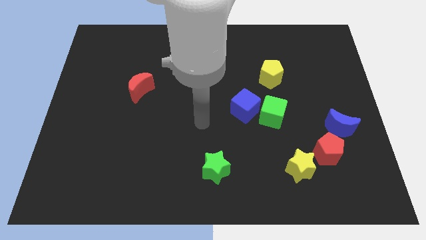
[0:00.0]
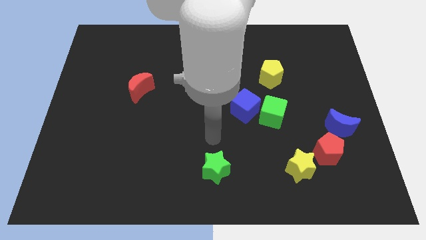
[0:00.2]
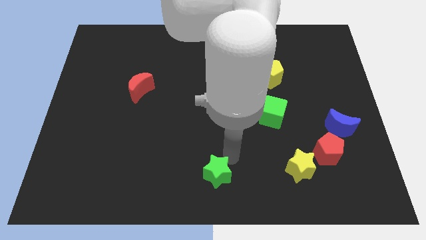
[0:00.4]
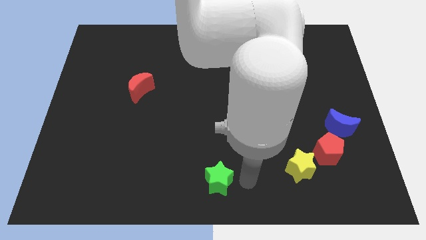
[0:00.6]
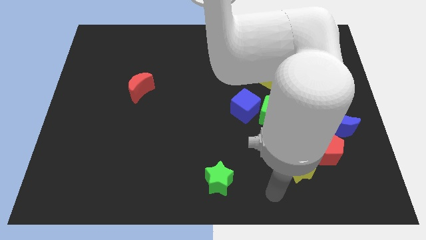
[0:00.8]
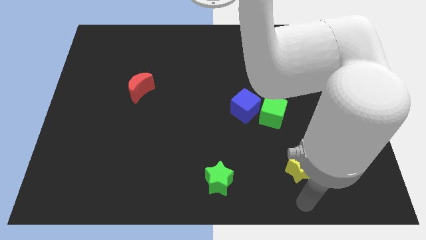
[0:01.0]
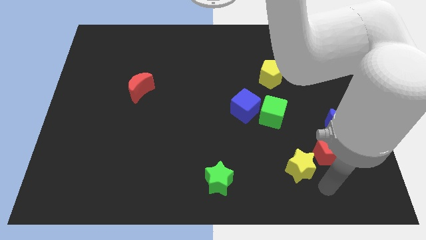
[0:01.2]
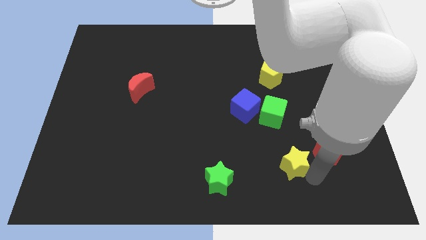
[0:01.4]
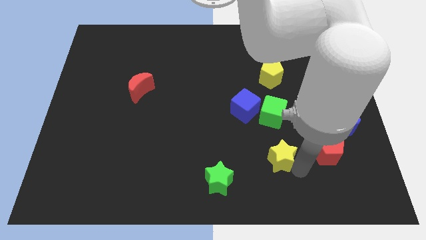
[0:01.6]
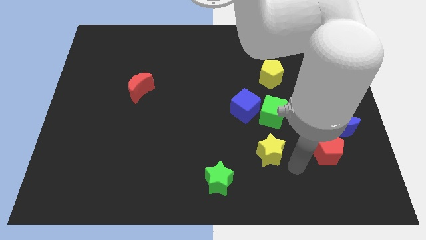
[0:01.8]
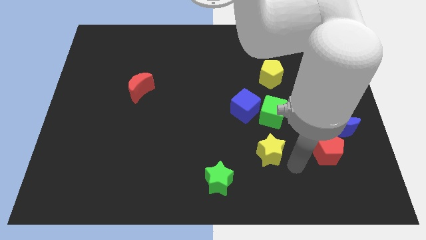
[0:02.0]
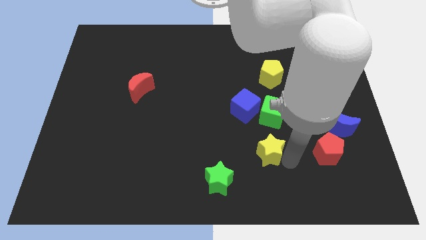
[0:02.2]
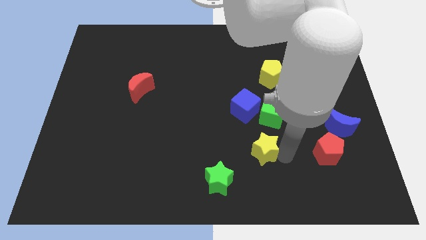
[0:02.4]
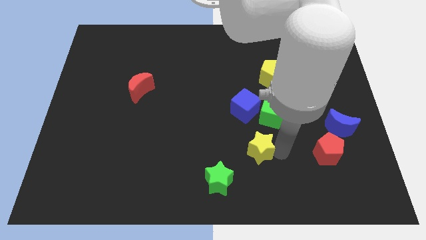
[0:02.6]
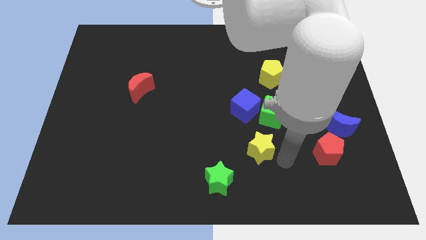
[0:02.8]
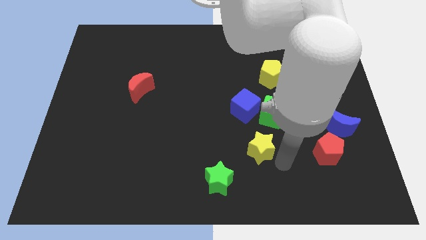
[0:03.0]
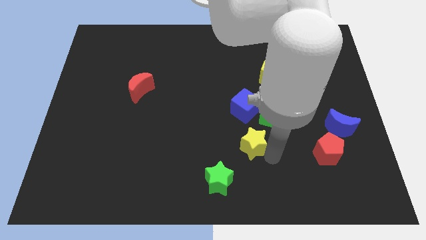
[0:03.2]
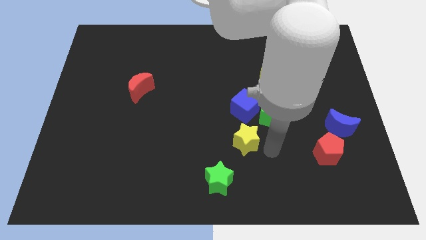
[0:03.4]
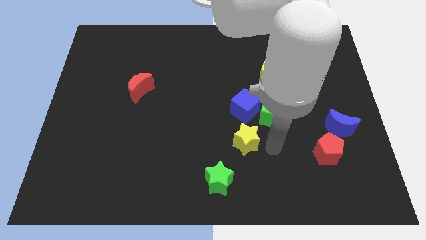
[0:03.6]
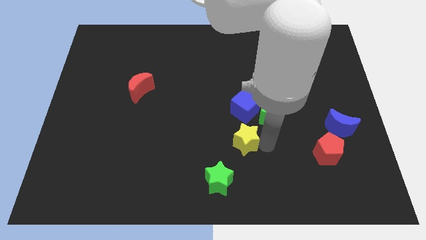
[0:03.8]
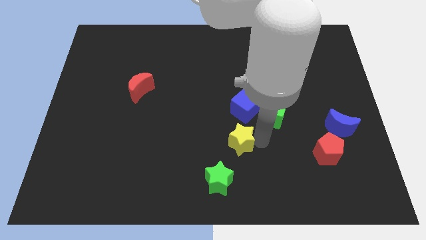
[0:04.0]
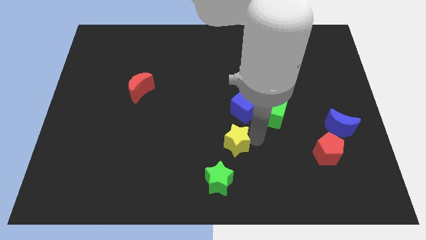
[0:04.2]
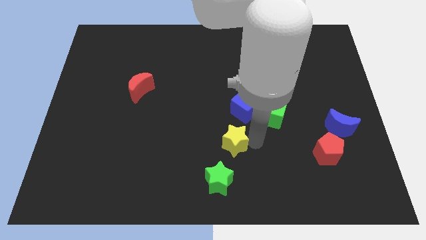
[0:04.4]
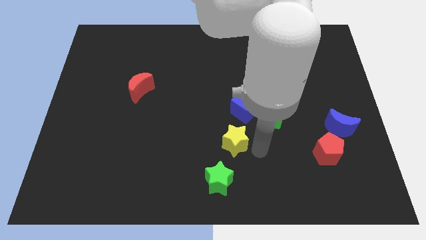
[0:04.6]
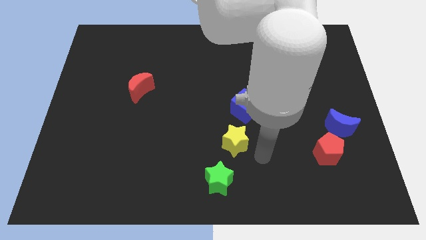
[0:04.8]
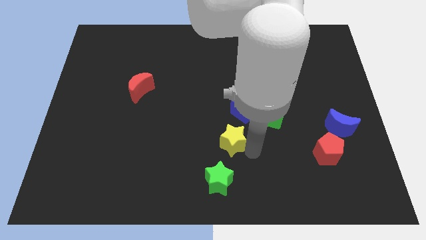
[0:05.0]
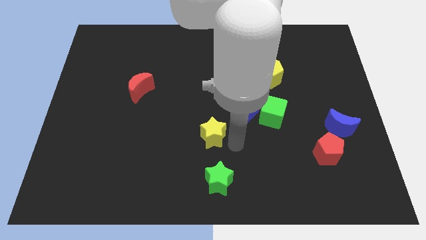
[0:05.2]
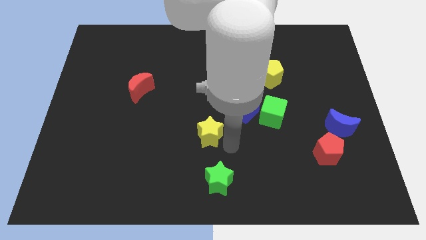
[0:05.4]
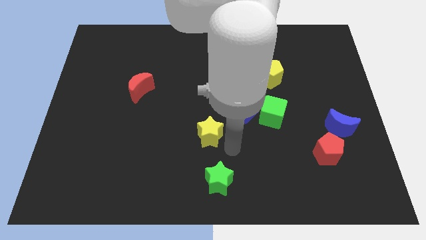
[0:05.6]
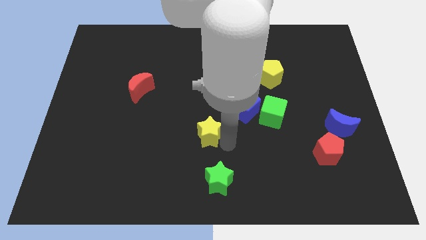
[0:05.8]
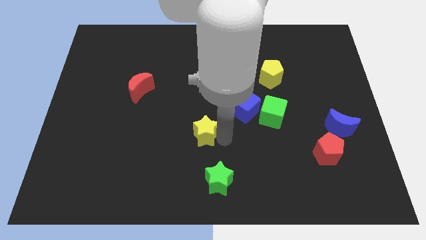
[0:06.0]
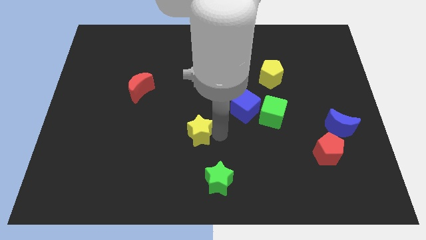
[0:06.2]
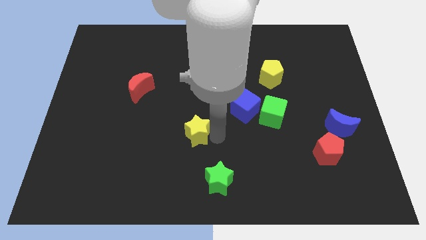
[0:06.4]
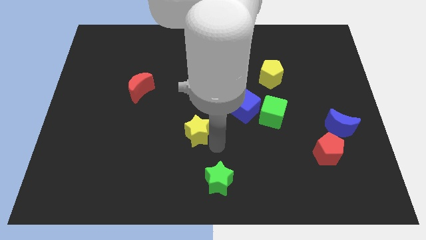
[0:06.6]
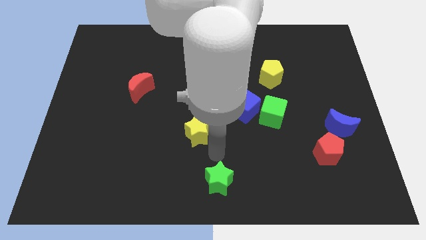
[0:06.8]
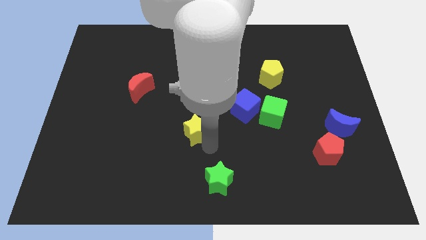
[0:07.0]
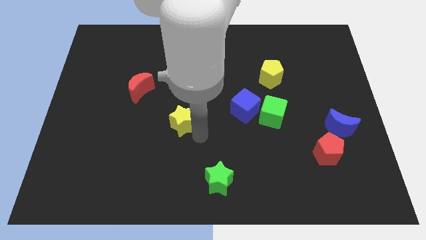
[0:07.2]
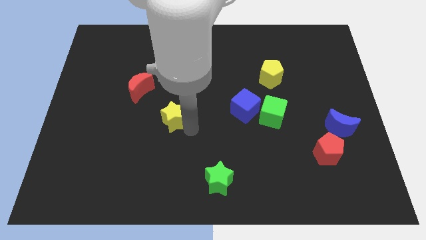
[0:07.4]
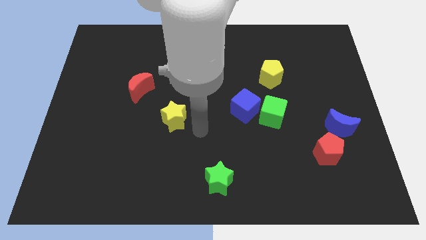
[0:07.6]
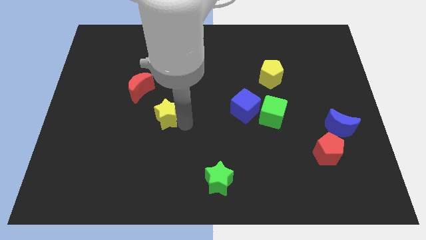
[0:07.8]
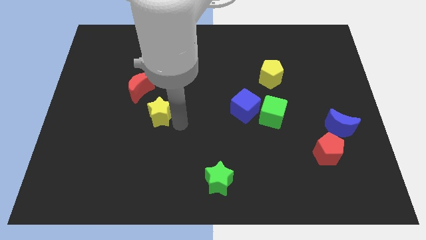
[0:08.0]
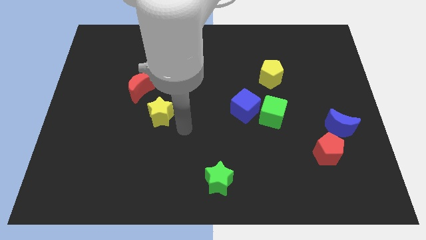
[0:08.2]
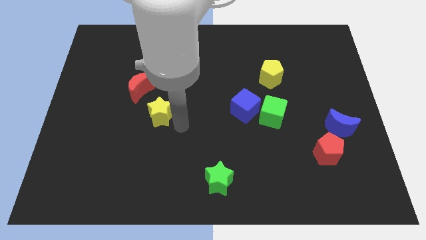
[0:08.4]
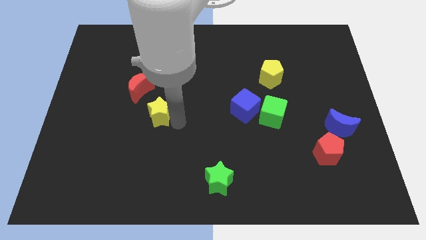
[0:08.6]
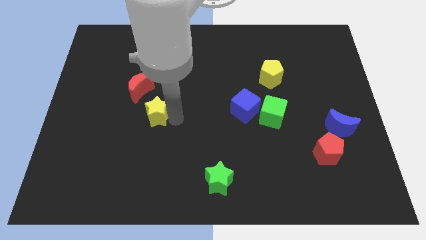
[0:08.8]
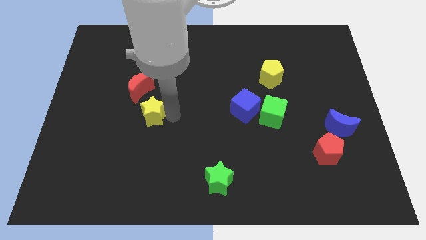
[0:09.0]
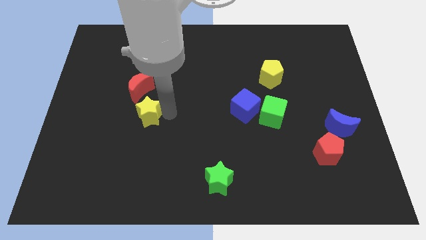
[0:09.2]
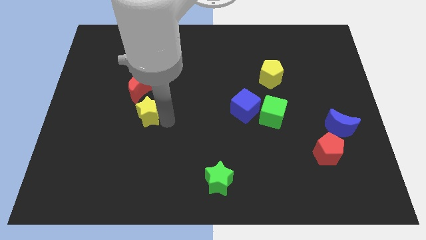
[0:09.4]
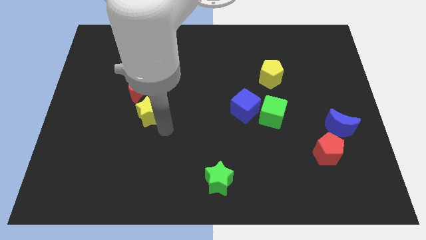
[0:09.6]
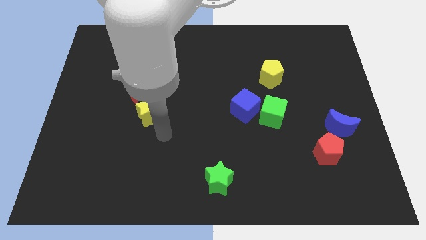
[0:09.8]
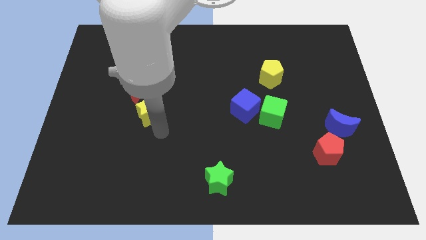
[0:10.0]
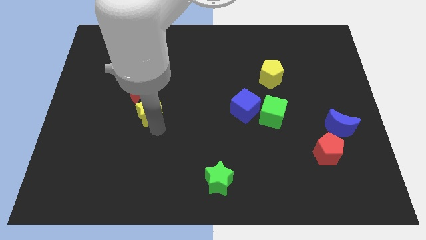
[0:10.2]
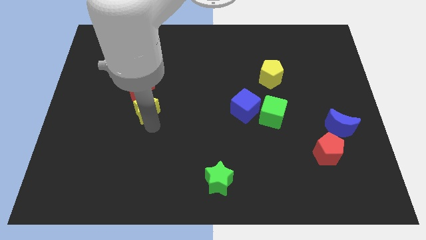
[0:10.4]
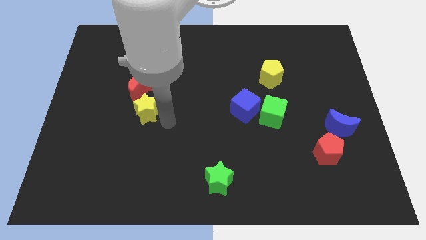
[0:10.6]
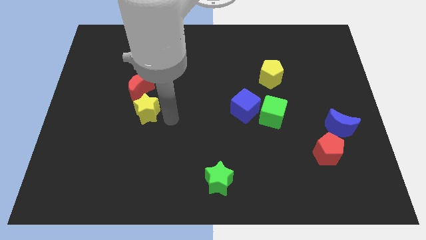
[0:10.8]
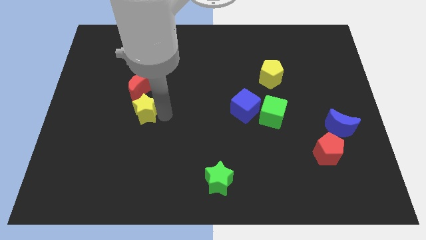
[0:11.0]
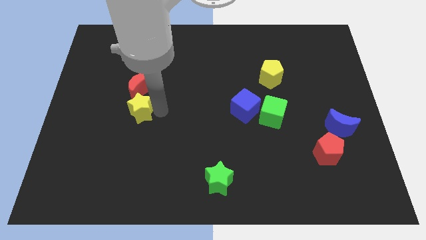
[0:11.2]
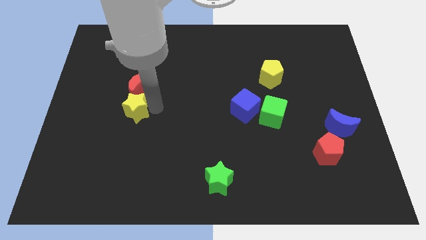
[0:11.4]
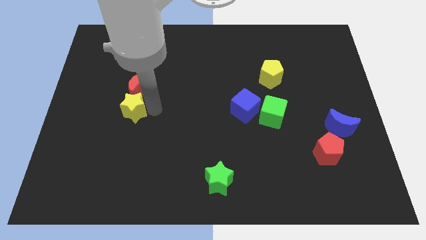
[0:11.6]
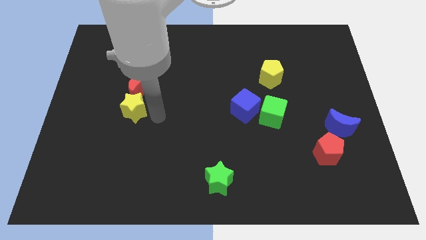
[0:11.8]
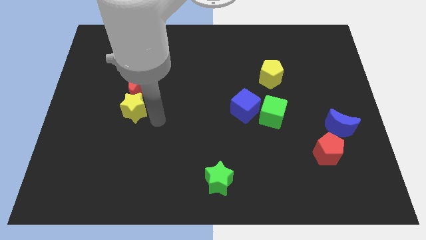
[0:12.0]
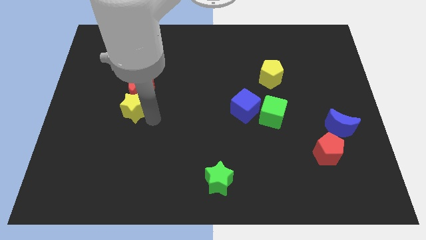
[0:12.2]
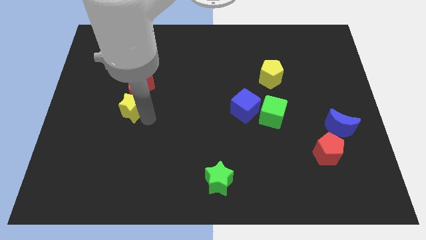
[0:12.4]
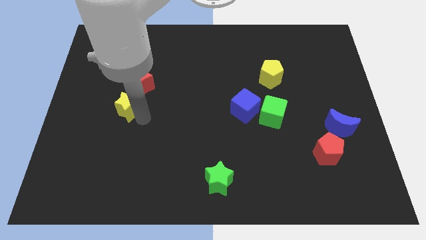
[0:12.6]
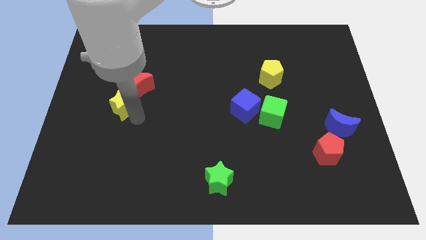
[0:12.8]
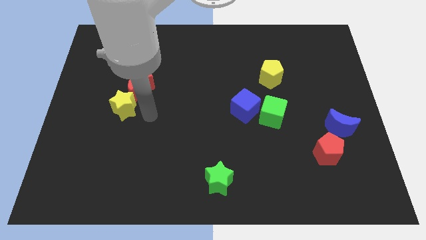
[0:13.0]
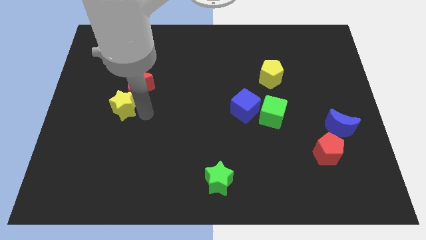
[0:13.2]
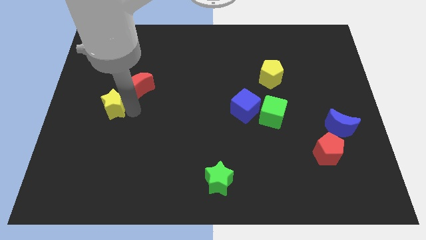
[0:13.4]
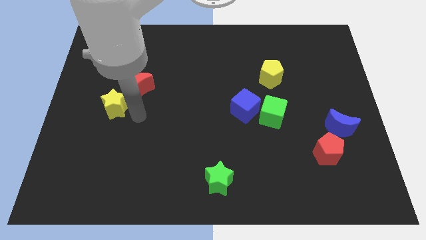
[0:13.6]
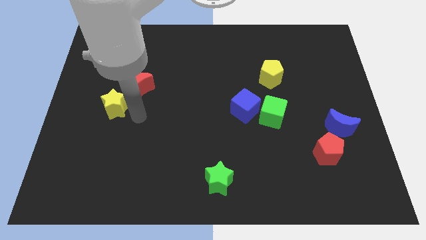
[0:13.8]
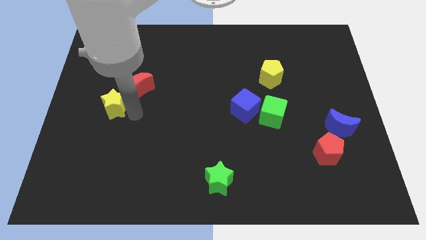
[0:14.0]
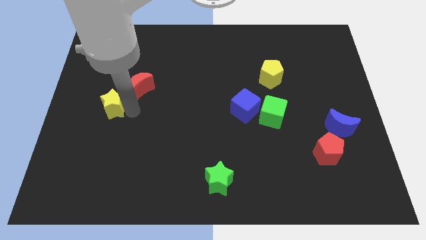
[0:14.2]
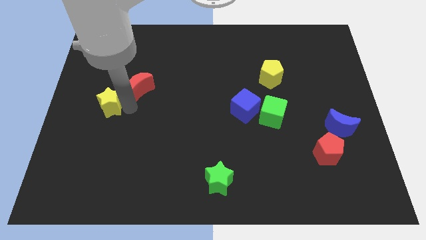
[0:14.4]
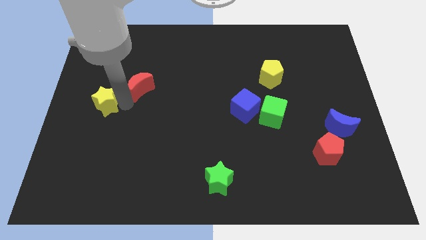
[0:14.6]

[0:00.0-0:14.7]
slide the yellow star to the left side of the board

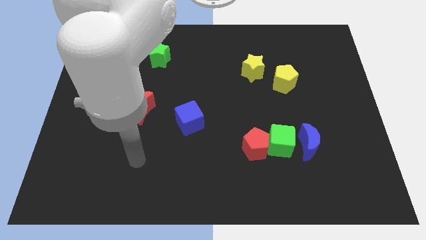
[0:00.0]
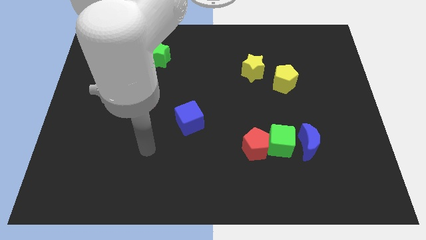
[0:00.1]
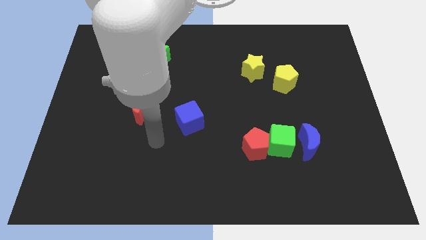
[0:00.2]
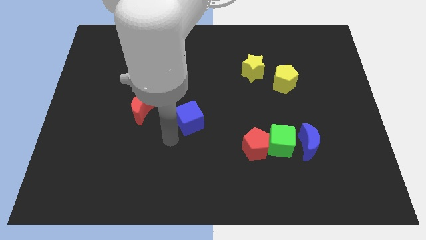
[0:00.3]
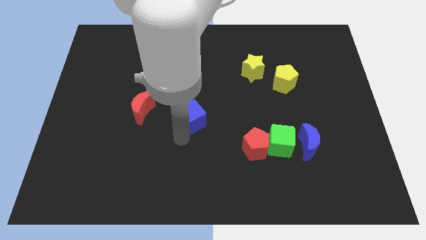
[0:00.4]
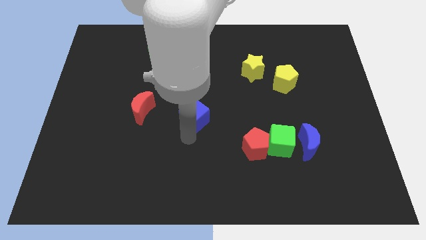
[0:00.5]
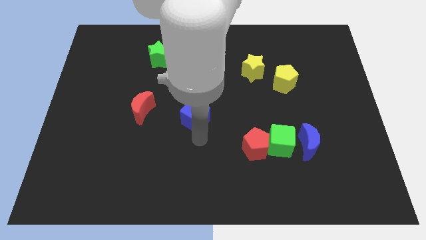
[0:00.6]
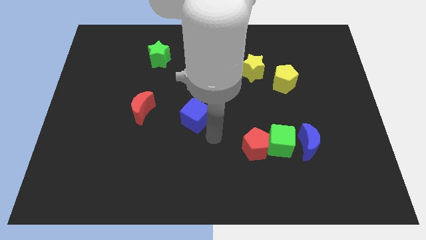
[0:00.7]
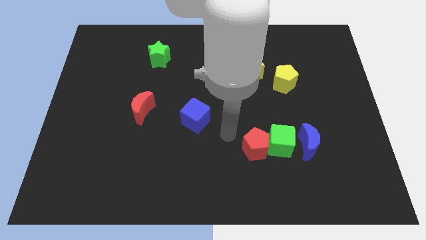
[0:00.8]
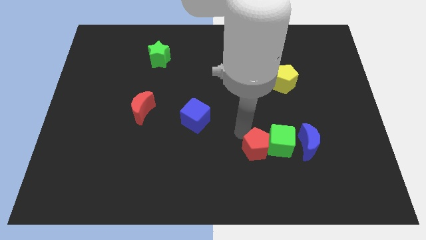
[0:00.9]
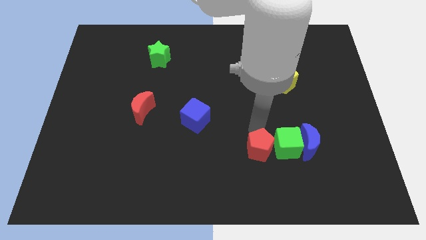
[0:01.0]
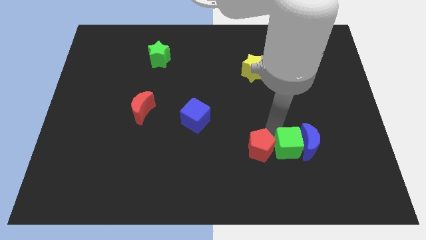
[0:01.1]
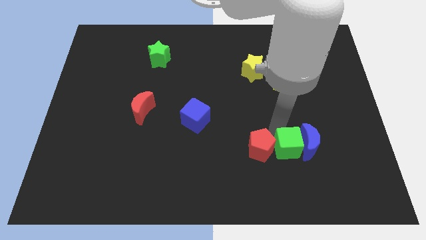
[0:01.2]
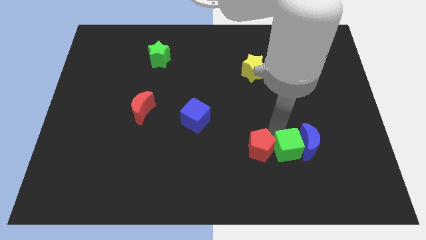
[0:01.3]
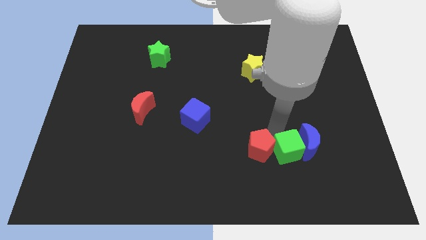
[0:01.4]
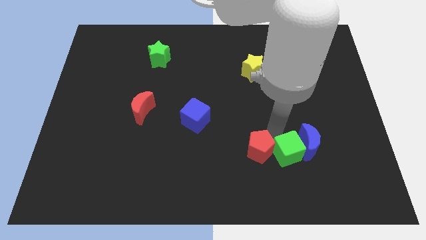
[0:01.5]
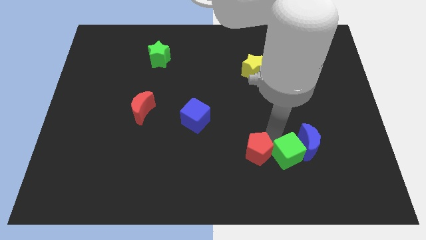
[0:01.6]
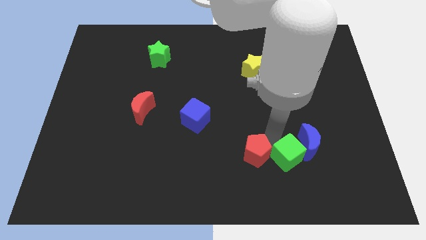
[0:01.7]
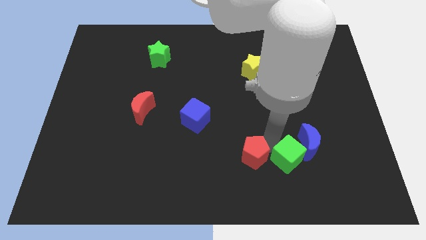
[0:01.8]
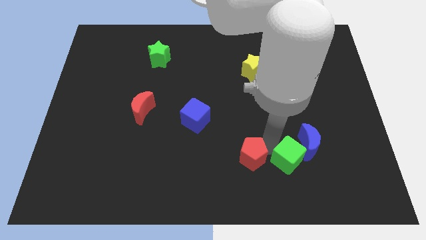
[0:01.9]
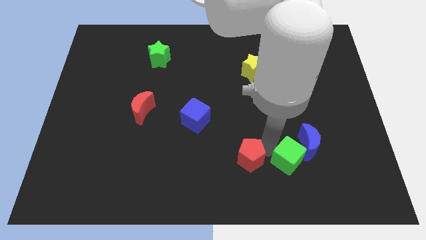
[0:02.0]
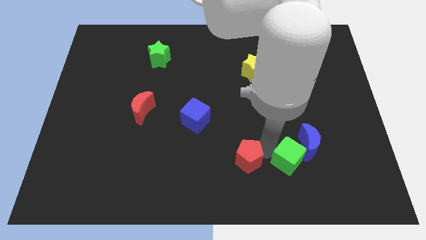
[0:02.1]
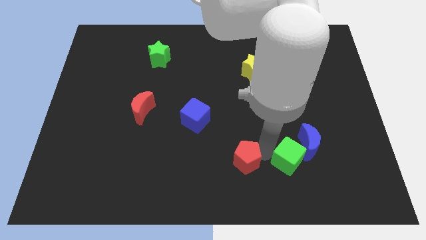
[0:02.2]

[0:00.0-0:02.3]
push the red pentagon to the bottom side
